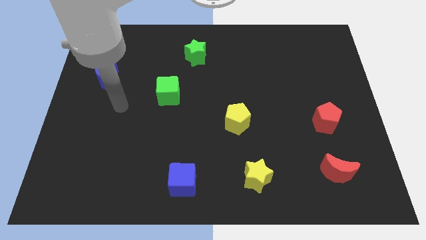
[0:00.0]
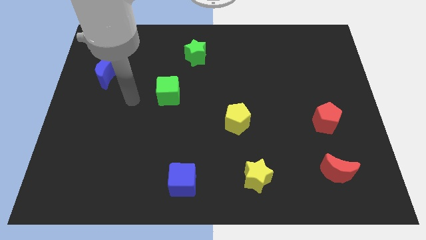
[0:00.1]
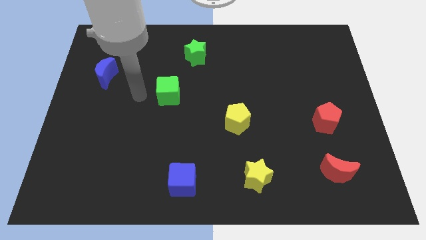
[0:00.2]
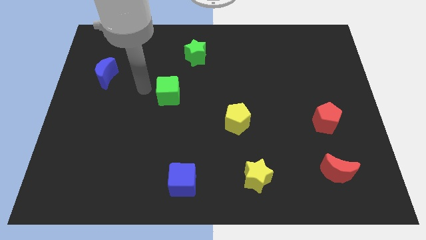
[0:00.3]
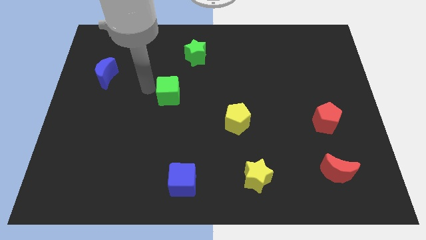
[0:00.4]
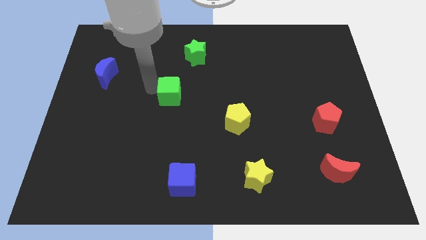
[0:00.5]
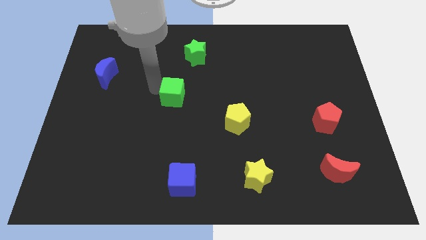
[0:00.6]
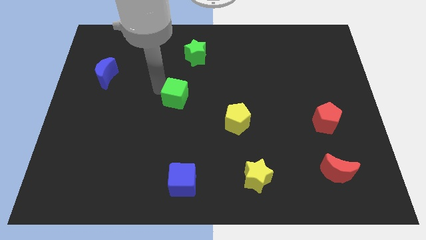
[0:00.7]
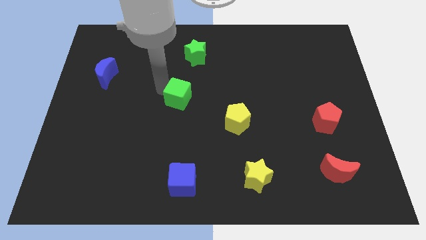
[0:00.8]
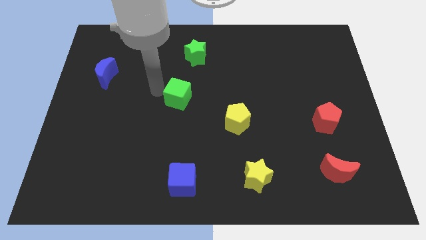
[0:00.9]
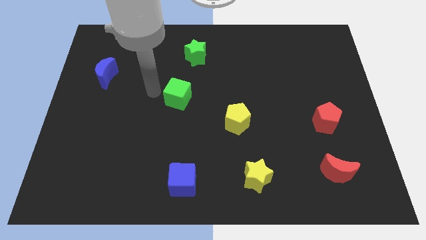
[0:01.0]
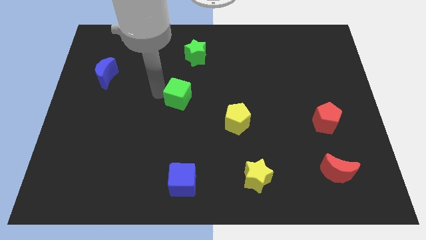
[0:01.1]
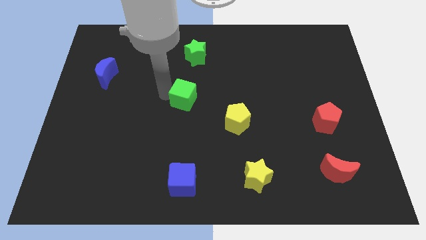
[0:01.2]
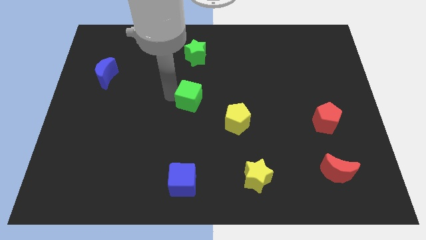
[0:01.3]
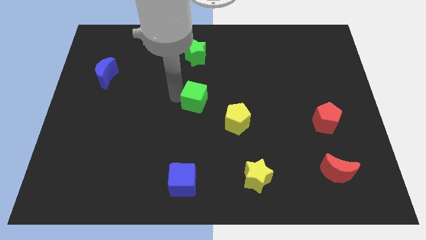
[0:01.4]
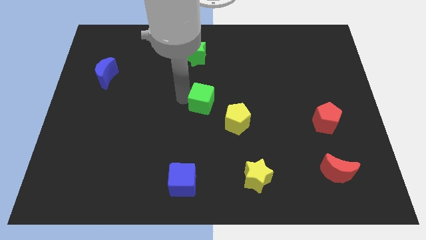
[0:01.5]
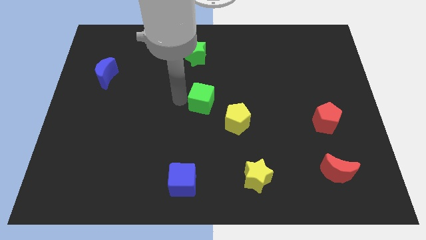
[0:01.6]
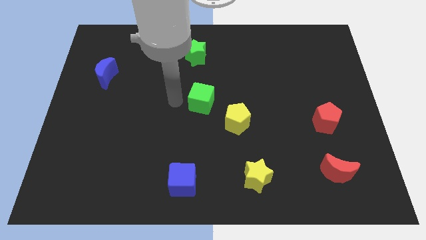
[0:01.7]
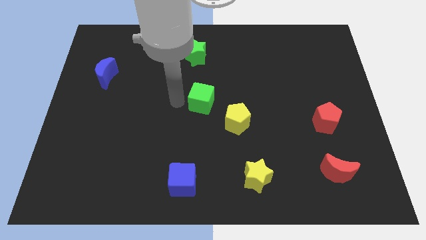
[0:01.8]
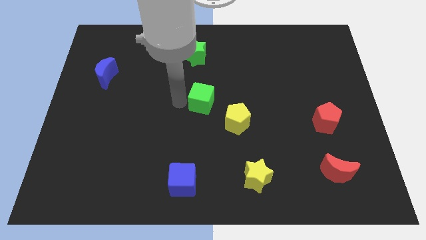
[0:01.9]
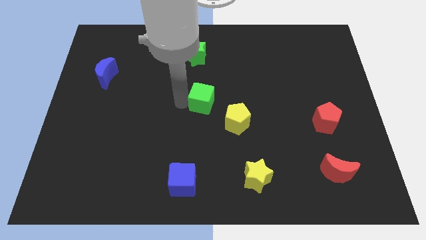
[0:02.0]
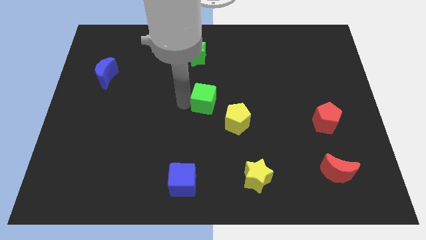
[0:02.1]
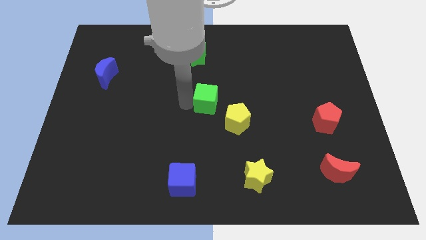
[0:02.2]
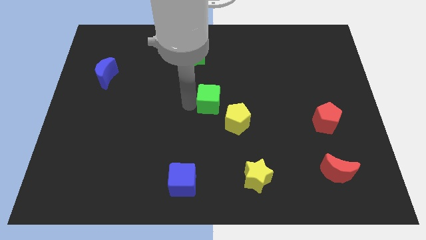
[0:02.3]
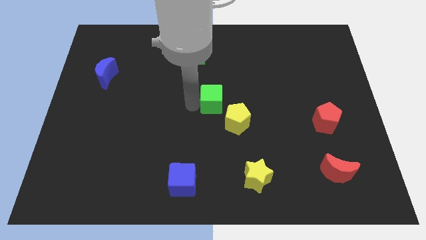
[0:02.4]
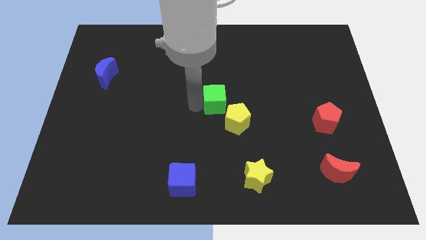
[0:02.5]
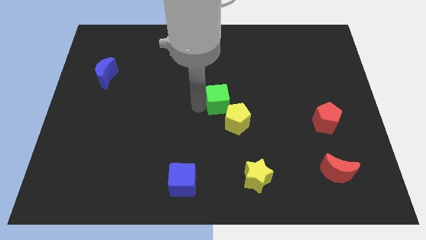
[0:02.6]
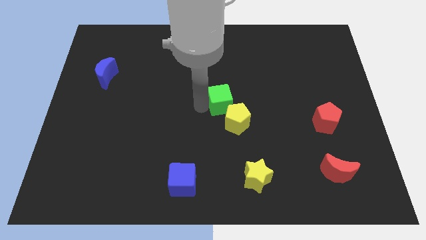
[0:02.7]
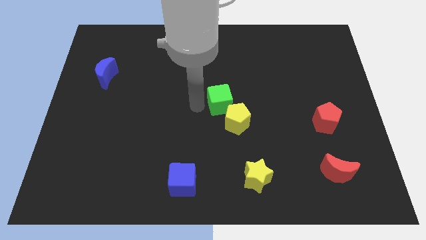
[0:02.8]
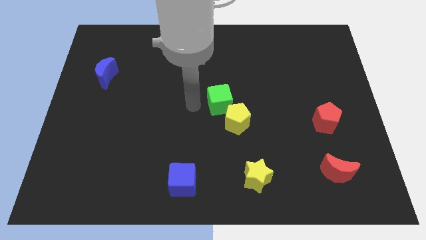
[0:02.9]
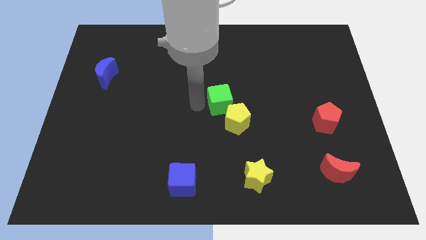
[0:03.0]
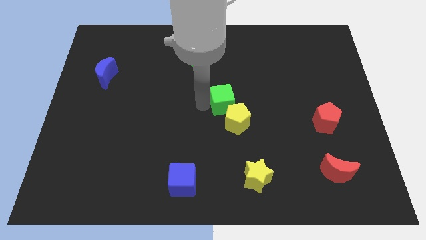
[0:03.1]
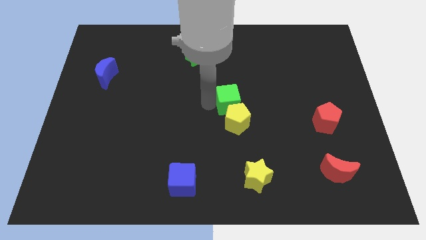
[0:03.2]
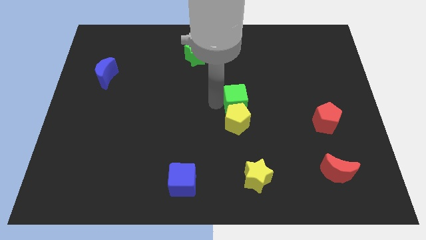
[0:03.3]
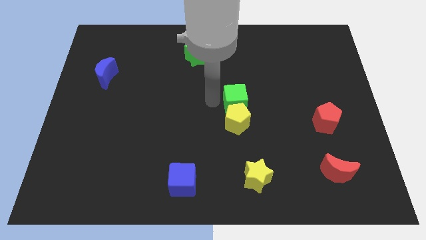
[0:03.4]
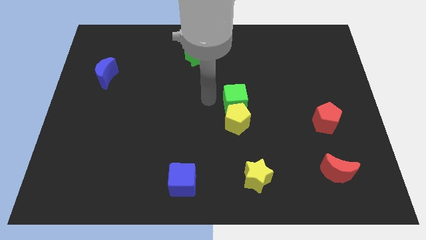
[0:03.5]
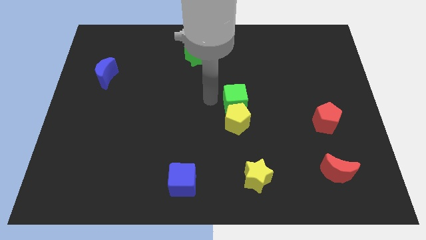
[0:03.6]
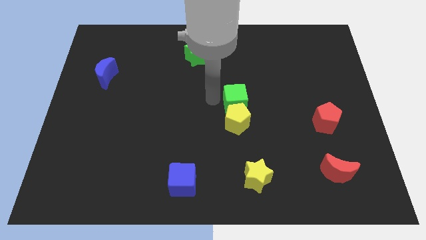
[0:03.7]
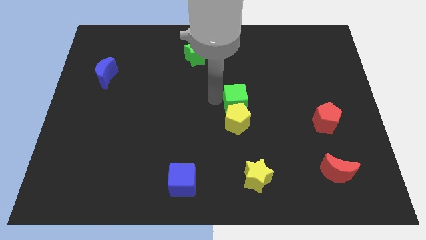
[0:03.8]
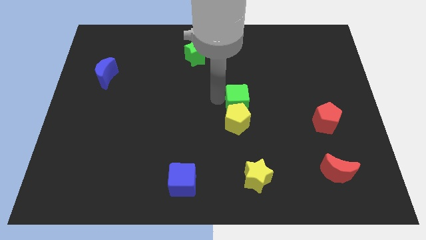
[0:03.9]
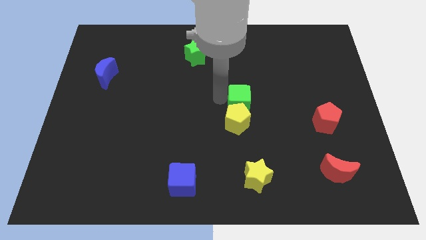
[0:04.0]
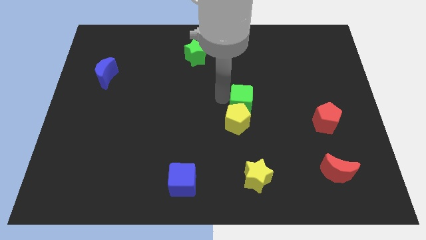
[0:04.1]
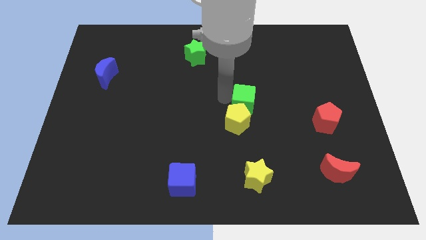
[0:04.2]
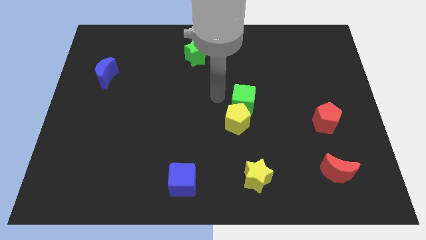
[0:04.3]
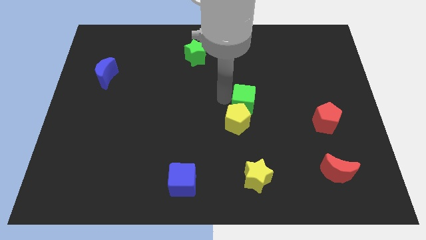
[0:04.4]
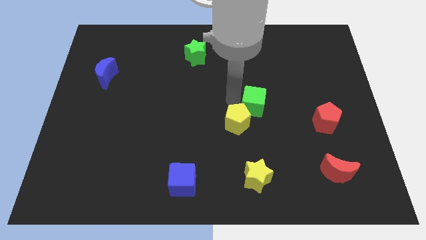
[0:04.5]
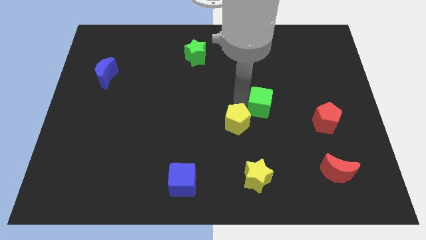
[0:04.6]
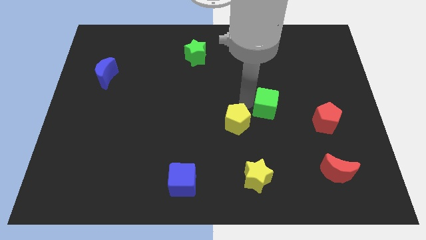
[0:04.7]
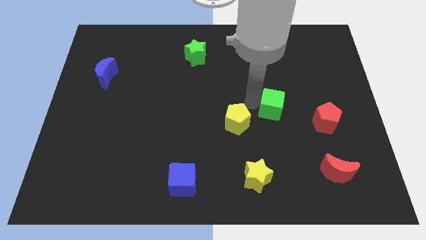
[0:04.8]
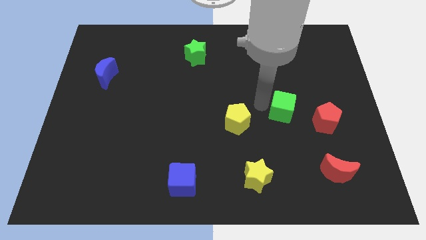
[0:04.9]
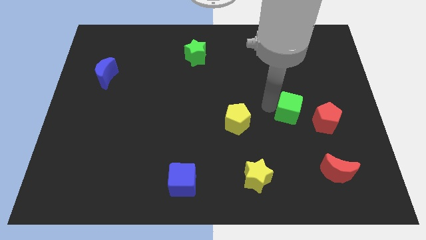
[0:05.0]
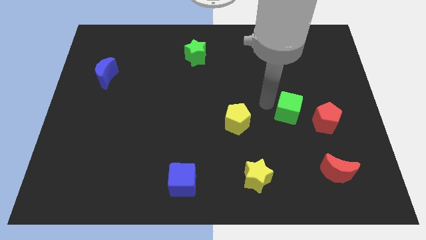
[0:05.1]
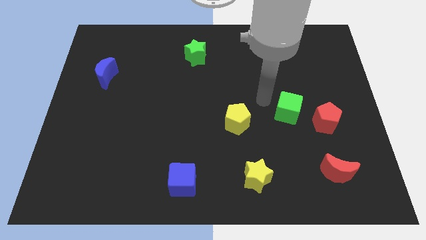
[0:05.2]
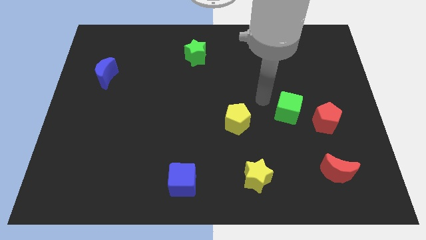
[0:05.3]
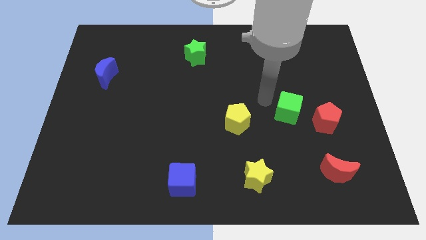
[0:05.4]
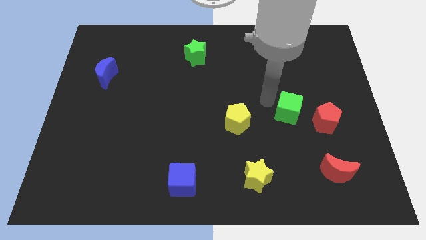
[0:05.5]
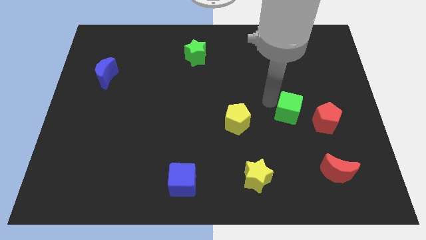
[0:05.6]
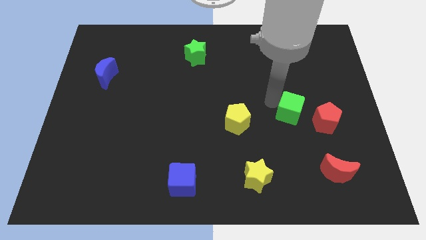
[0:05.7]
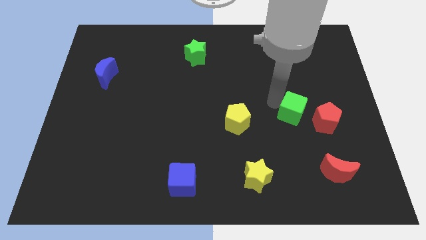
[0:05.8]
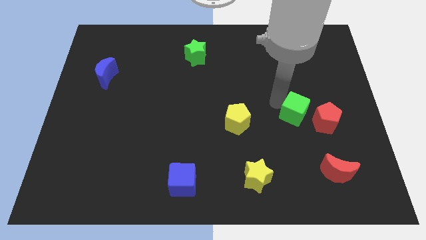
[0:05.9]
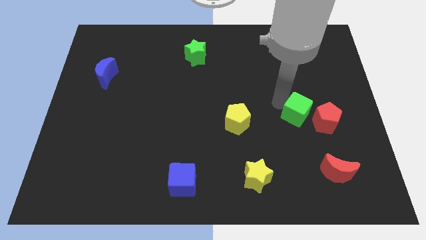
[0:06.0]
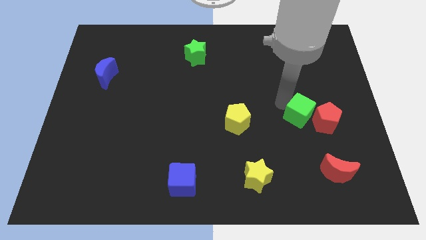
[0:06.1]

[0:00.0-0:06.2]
put the green cube towards the red pentagon

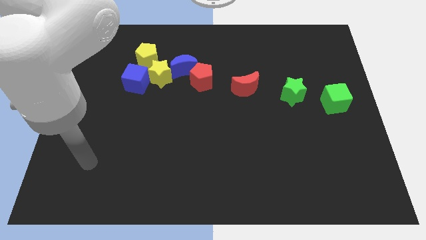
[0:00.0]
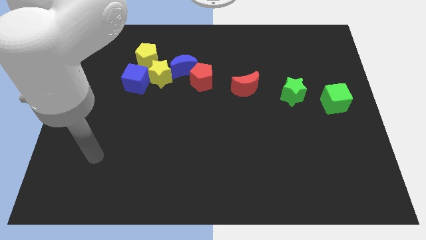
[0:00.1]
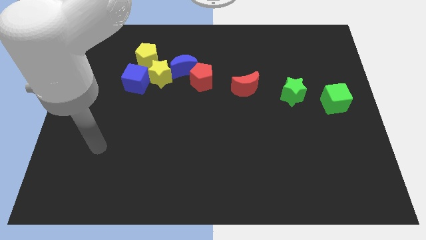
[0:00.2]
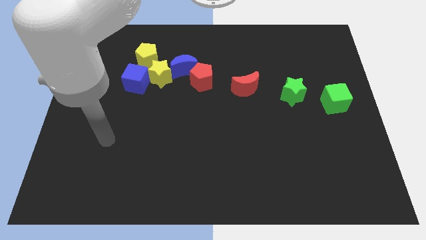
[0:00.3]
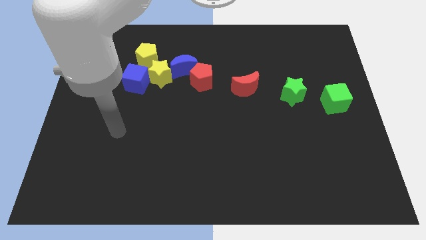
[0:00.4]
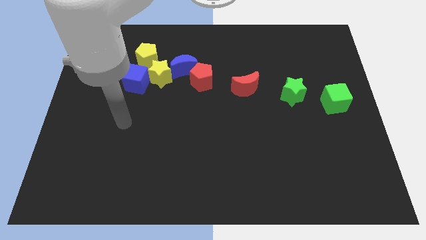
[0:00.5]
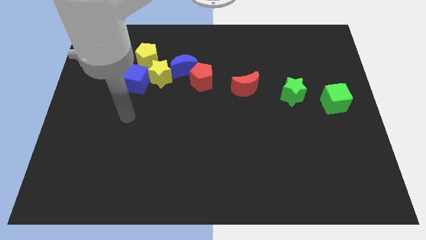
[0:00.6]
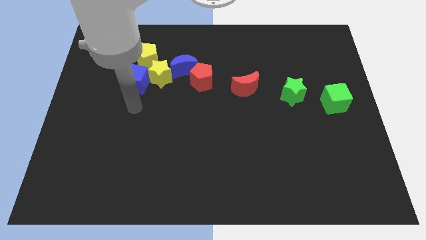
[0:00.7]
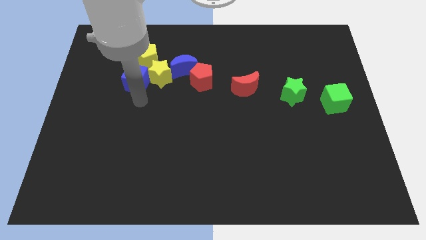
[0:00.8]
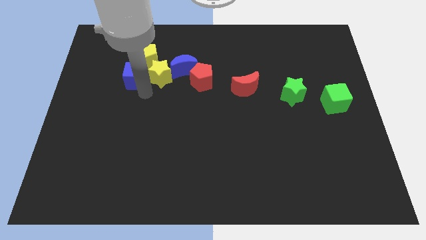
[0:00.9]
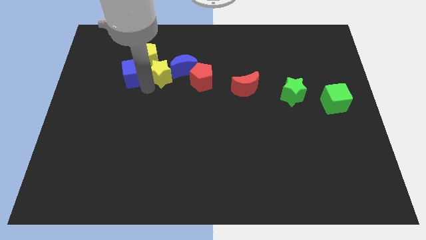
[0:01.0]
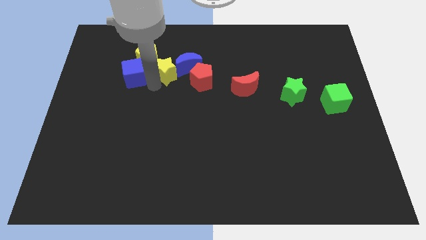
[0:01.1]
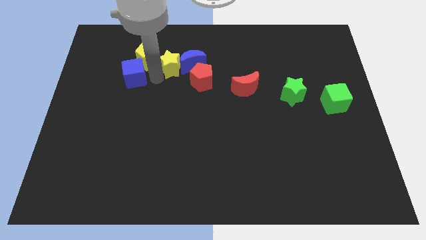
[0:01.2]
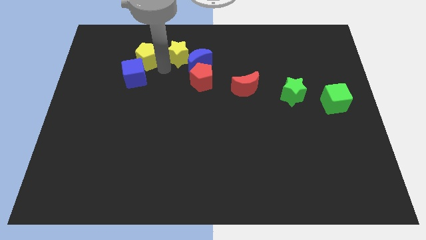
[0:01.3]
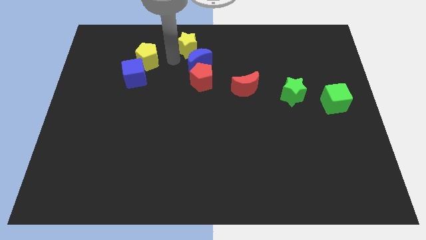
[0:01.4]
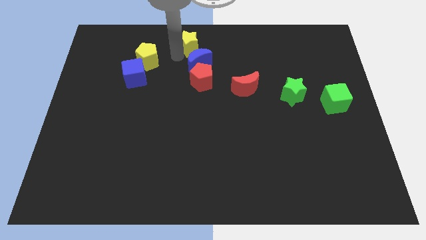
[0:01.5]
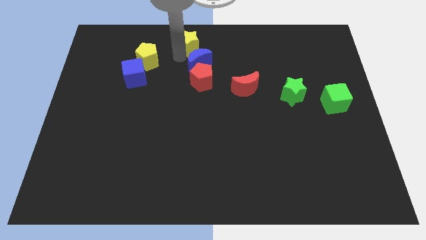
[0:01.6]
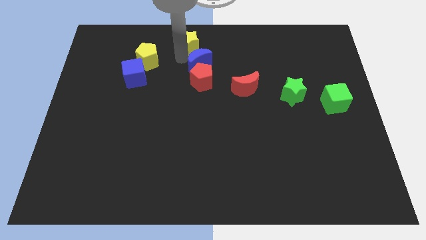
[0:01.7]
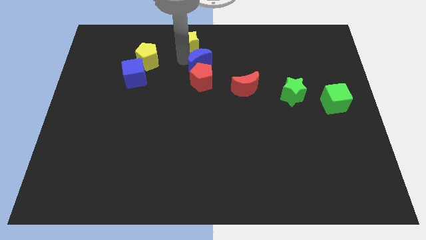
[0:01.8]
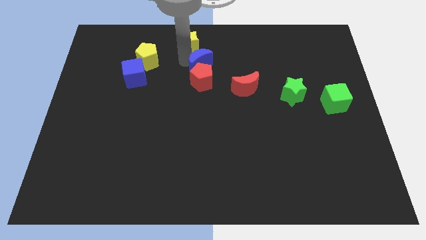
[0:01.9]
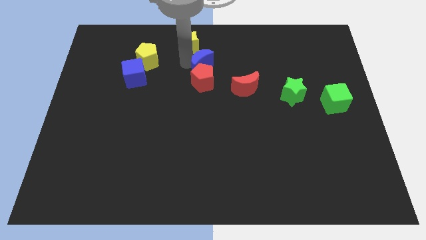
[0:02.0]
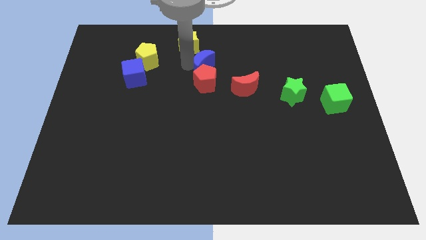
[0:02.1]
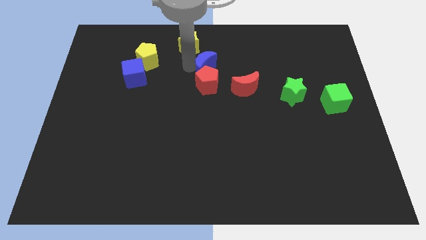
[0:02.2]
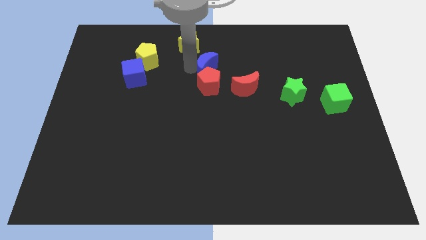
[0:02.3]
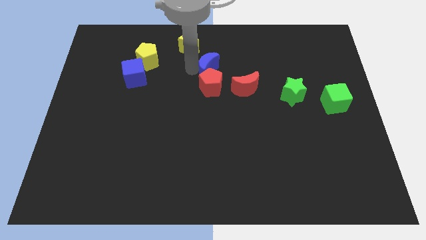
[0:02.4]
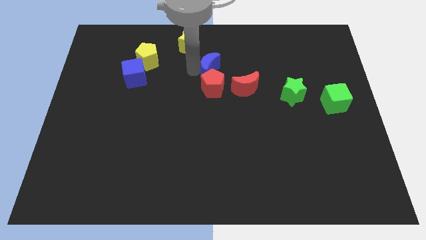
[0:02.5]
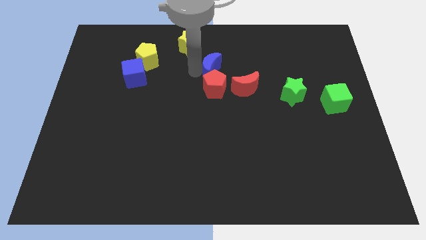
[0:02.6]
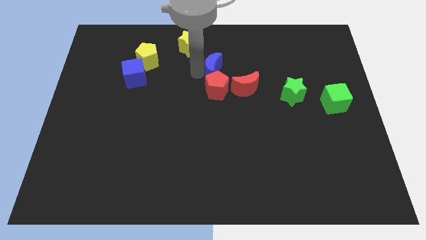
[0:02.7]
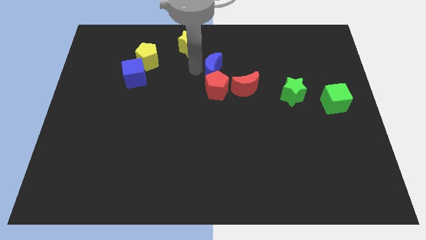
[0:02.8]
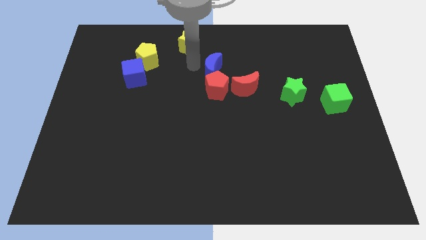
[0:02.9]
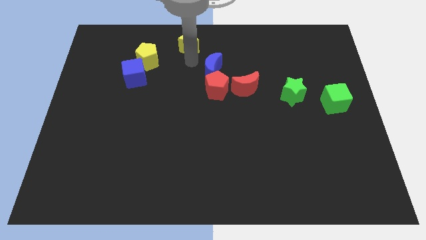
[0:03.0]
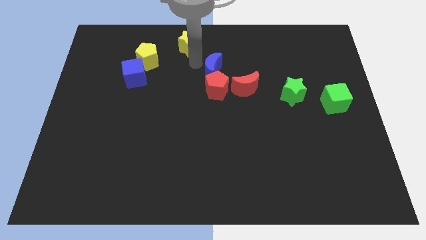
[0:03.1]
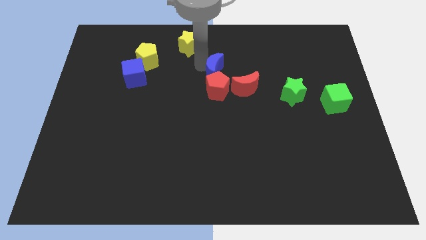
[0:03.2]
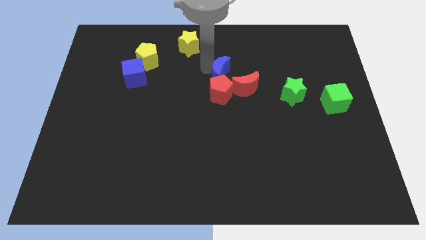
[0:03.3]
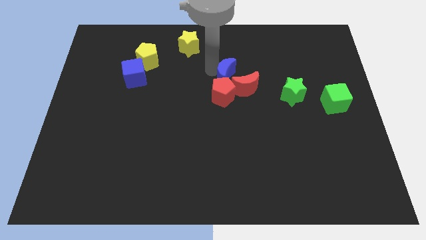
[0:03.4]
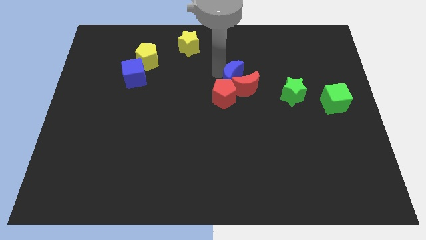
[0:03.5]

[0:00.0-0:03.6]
put the blue moon close to the red moon
